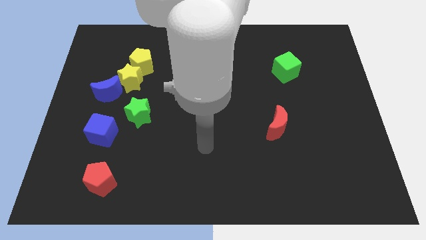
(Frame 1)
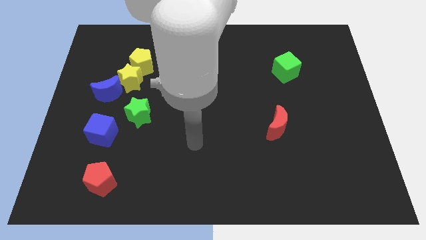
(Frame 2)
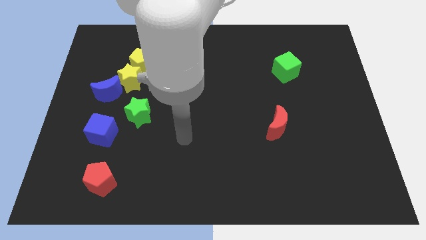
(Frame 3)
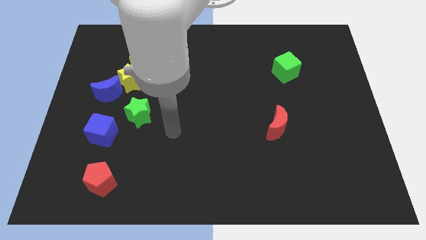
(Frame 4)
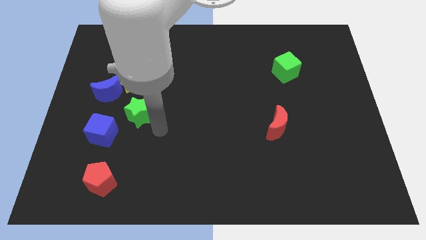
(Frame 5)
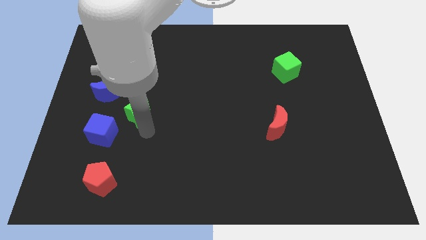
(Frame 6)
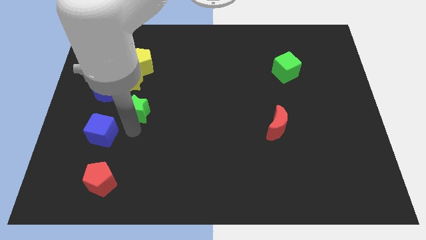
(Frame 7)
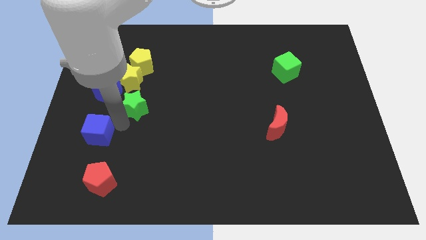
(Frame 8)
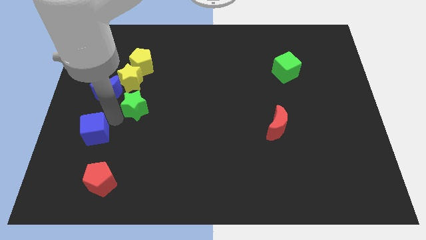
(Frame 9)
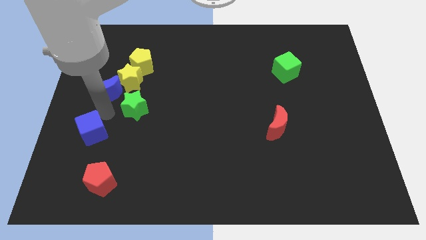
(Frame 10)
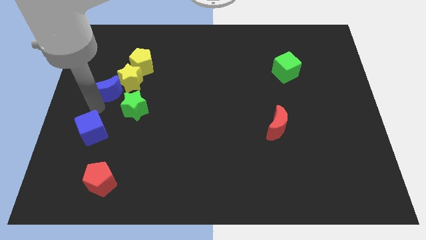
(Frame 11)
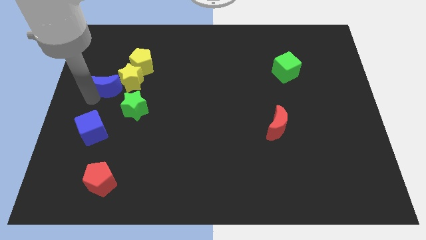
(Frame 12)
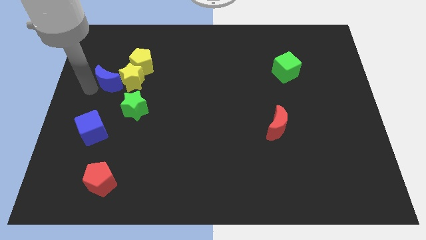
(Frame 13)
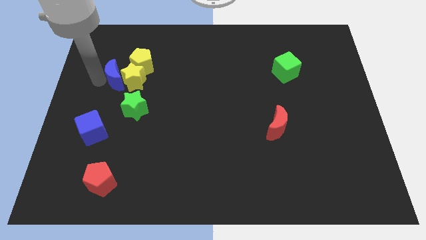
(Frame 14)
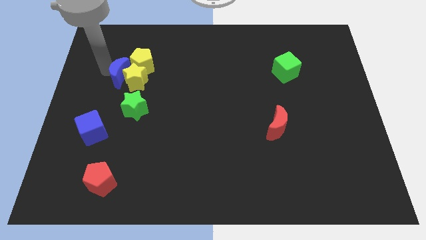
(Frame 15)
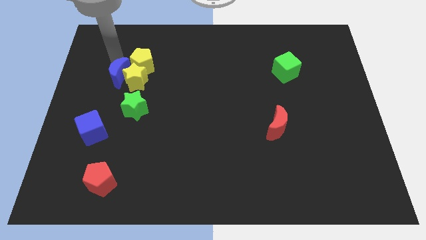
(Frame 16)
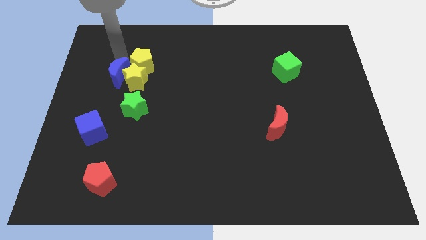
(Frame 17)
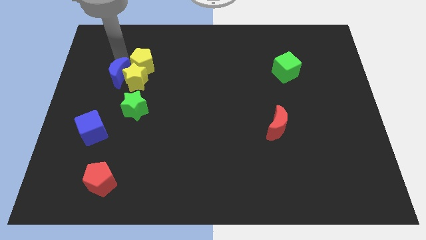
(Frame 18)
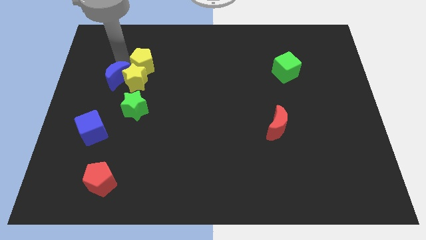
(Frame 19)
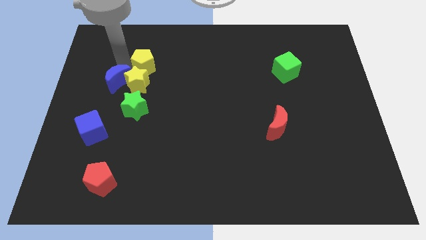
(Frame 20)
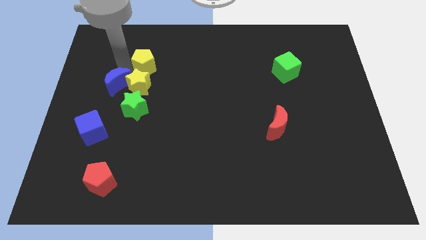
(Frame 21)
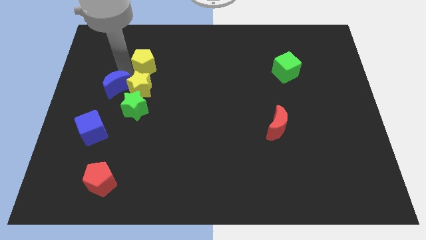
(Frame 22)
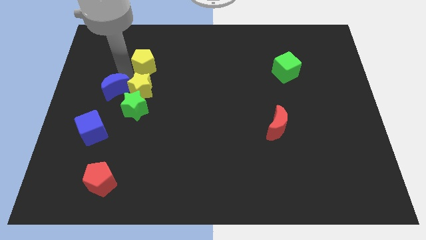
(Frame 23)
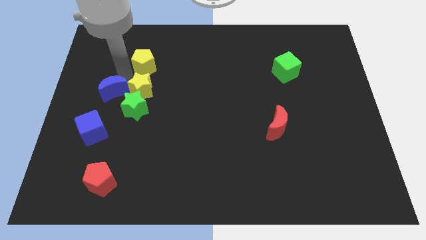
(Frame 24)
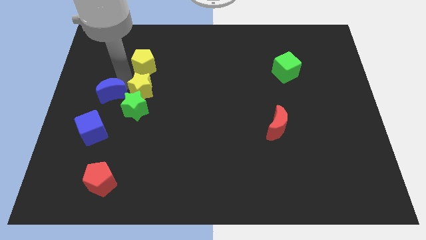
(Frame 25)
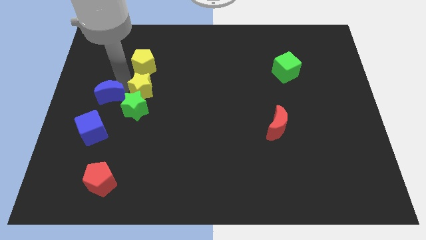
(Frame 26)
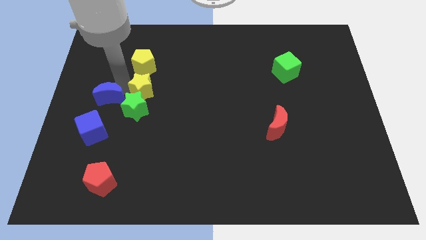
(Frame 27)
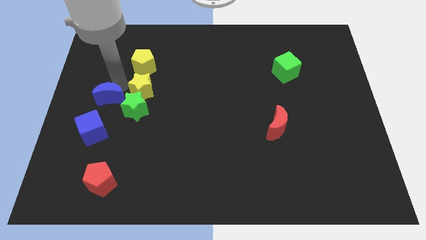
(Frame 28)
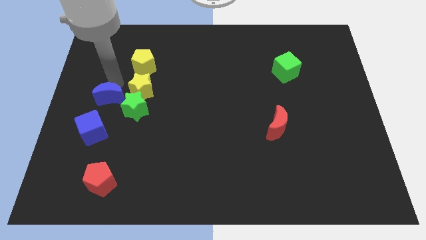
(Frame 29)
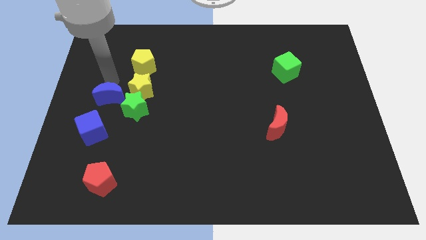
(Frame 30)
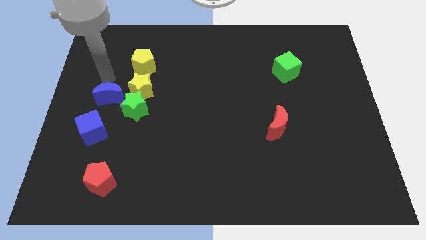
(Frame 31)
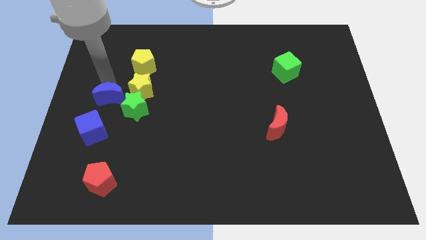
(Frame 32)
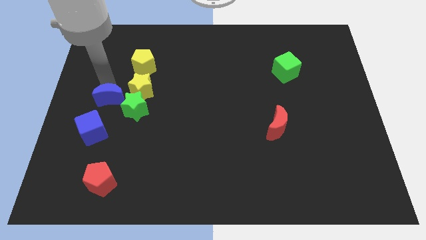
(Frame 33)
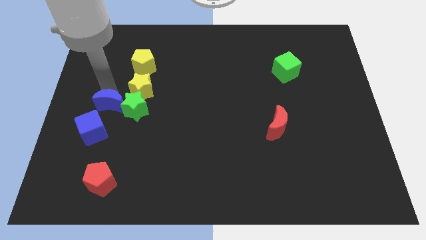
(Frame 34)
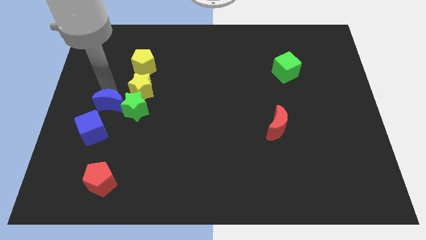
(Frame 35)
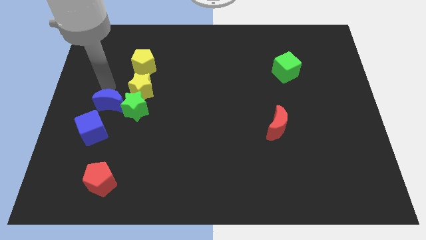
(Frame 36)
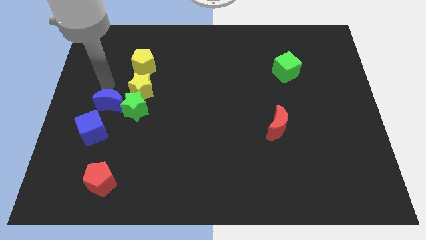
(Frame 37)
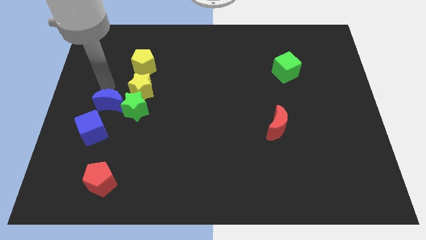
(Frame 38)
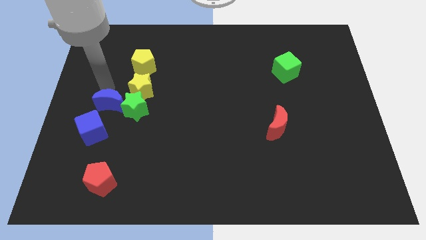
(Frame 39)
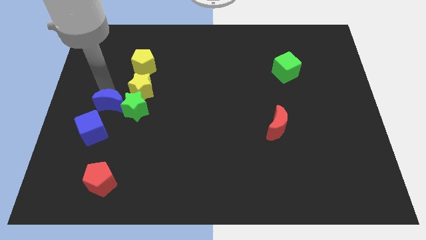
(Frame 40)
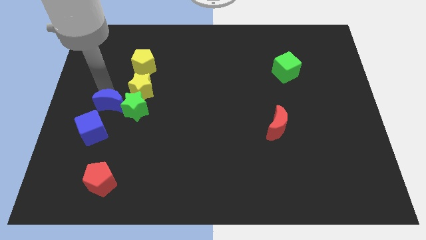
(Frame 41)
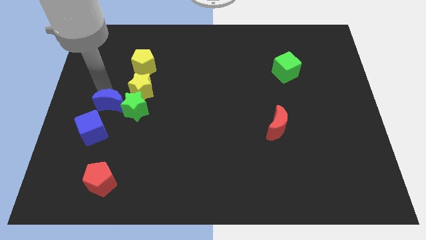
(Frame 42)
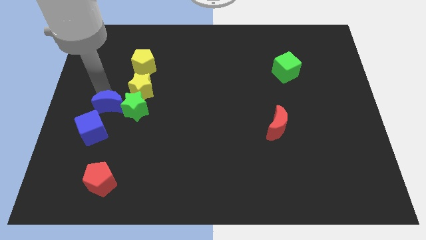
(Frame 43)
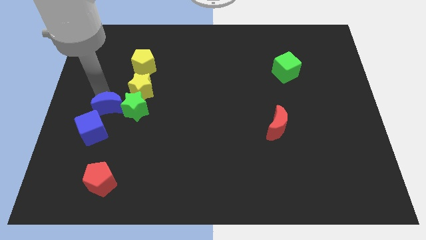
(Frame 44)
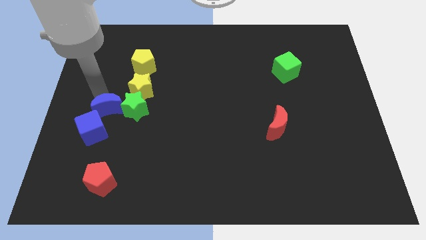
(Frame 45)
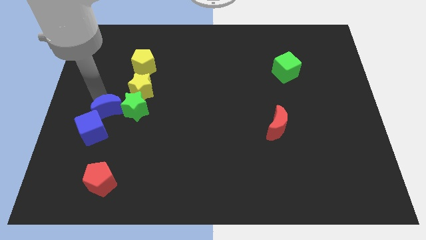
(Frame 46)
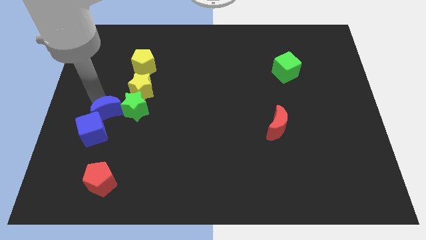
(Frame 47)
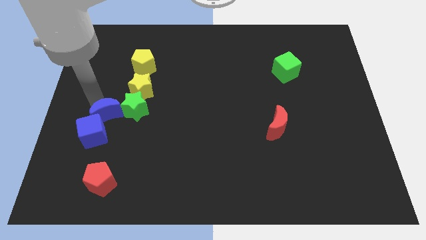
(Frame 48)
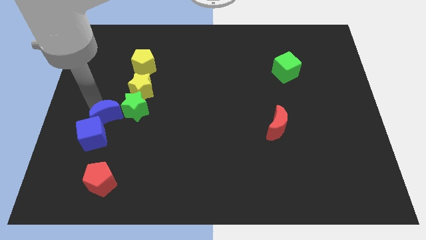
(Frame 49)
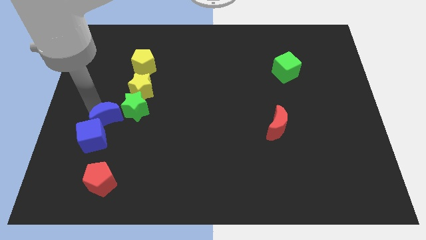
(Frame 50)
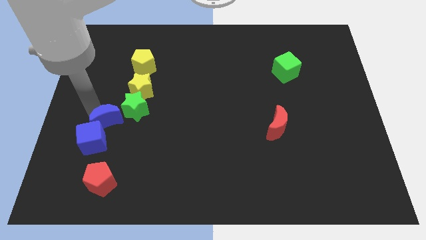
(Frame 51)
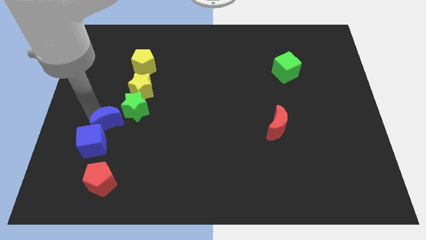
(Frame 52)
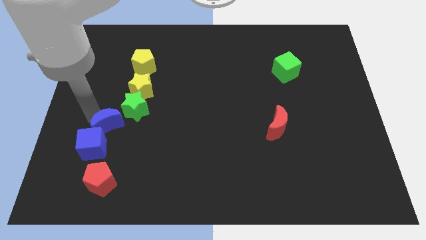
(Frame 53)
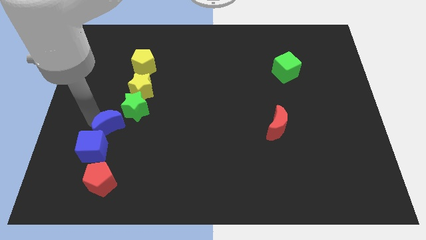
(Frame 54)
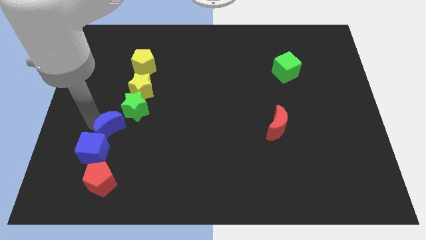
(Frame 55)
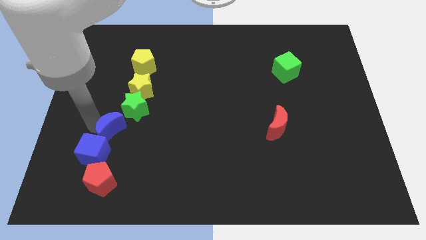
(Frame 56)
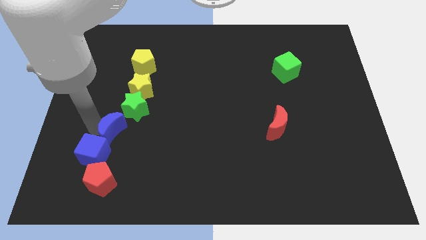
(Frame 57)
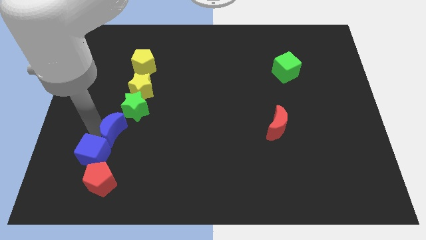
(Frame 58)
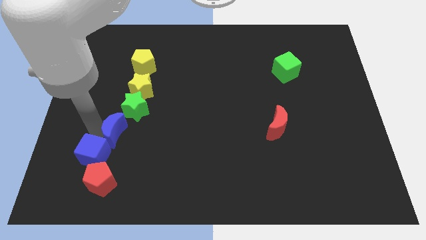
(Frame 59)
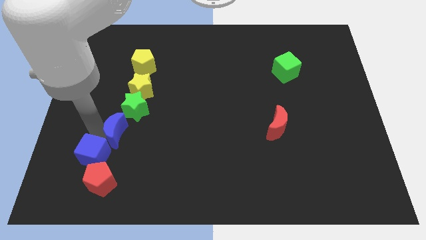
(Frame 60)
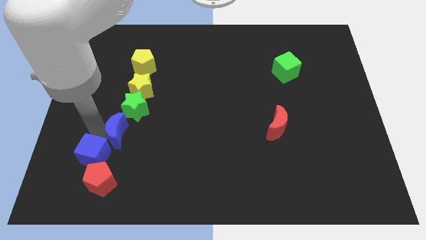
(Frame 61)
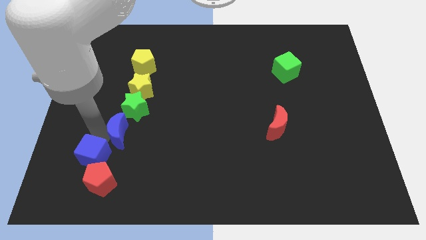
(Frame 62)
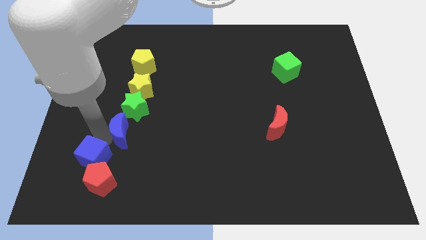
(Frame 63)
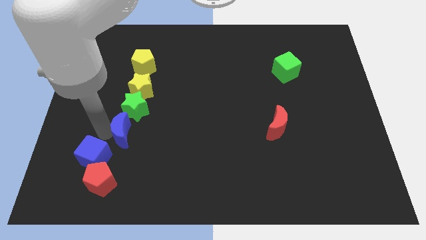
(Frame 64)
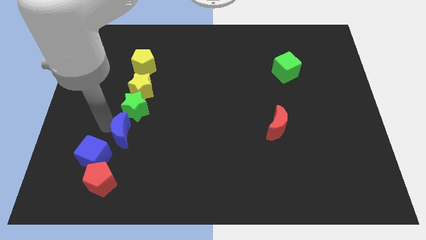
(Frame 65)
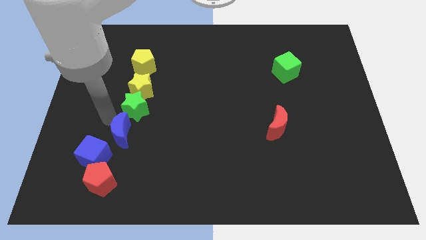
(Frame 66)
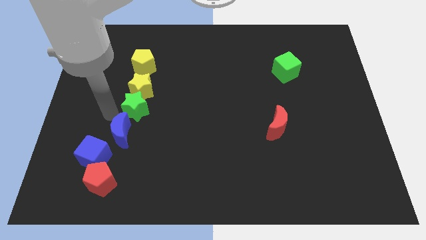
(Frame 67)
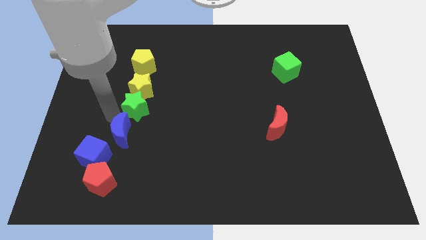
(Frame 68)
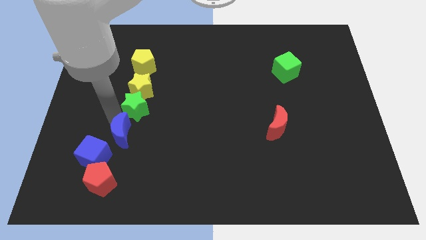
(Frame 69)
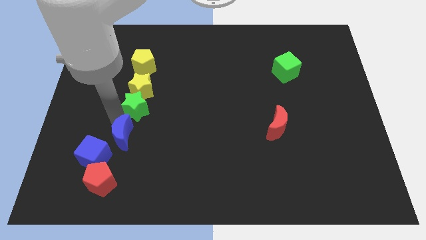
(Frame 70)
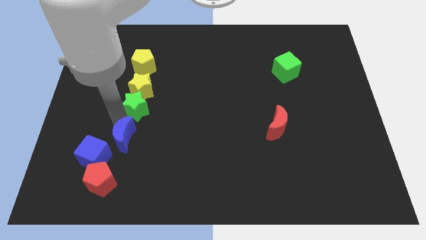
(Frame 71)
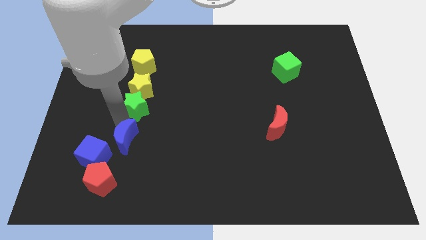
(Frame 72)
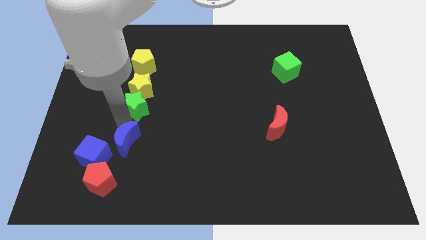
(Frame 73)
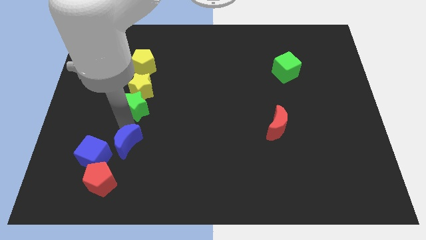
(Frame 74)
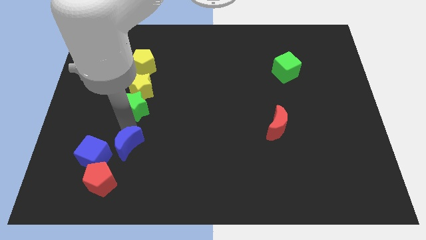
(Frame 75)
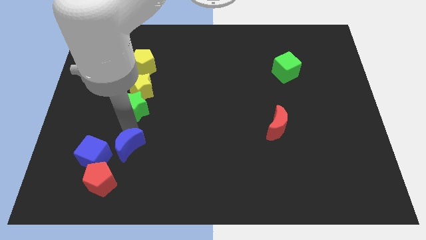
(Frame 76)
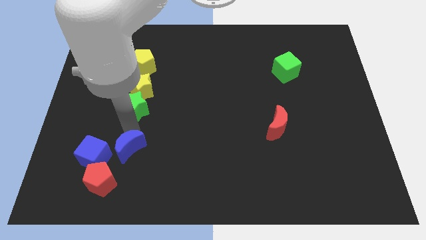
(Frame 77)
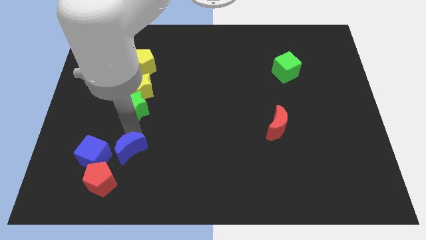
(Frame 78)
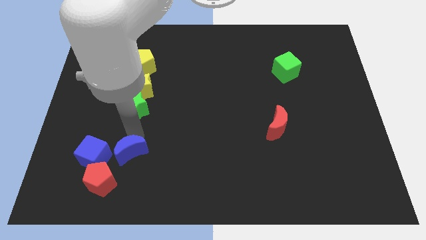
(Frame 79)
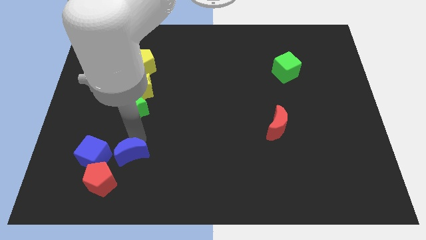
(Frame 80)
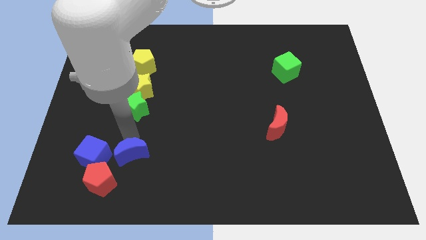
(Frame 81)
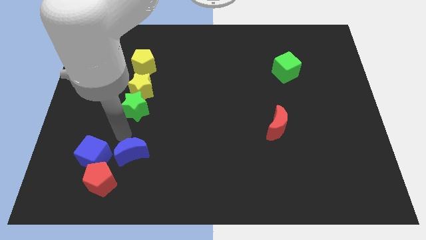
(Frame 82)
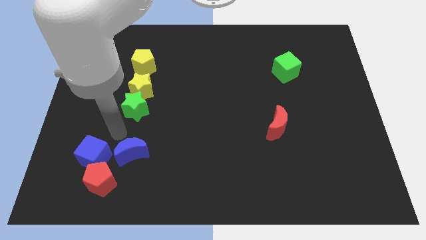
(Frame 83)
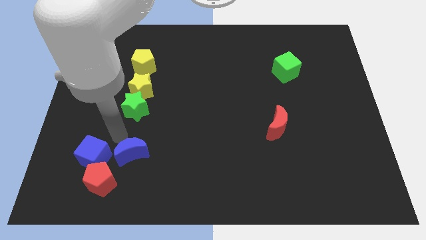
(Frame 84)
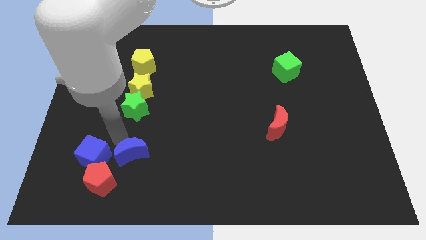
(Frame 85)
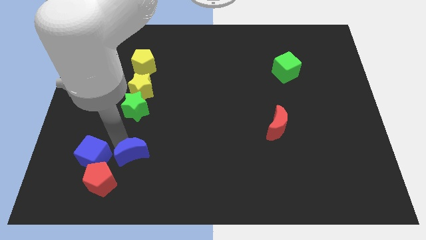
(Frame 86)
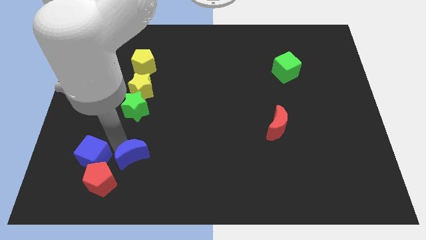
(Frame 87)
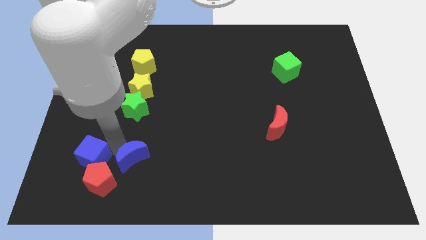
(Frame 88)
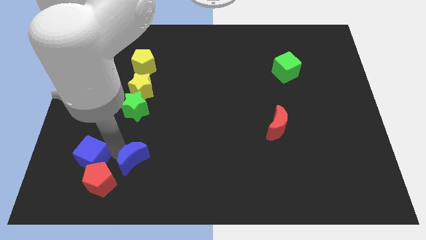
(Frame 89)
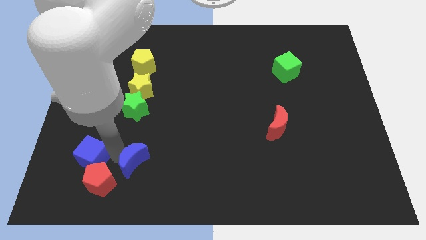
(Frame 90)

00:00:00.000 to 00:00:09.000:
put the blue moon to the right of the red pentagon
